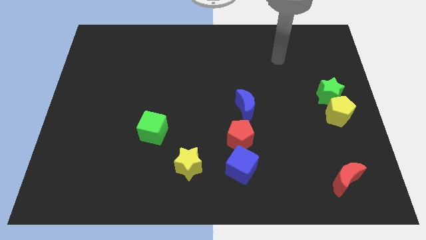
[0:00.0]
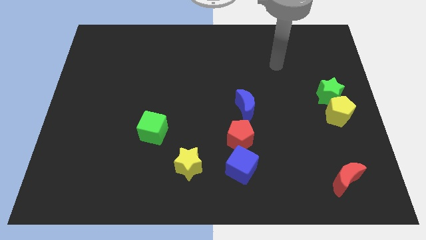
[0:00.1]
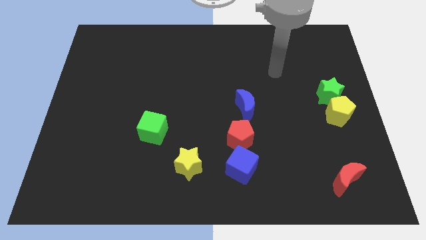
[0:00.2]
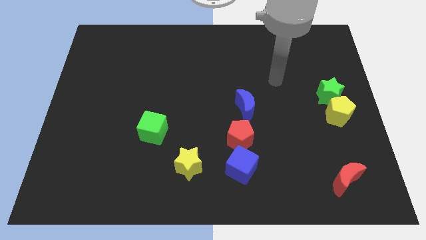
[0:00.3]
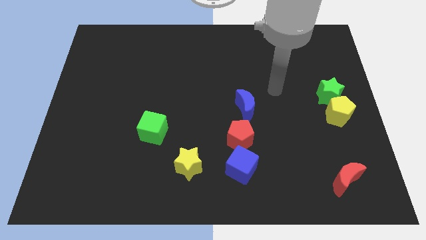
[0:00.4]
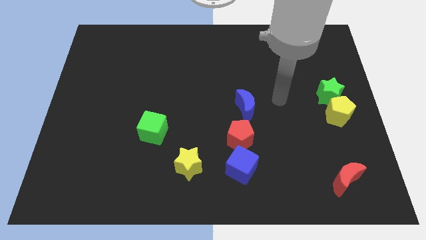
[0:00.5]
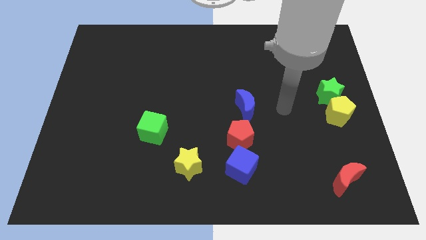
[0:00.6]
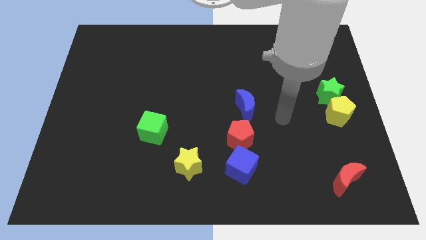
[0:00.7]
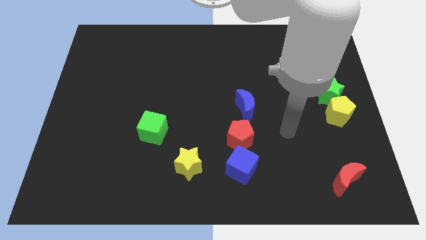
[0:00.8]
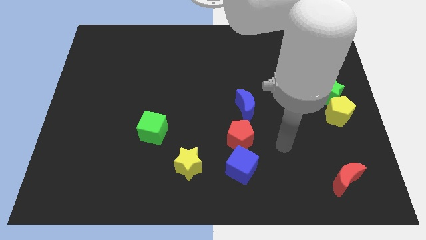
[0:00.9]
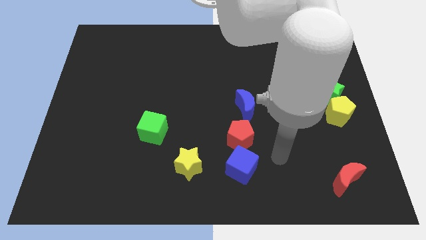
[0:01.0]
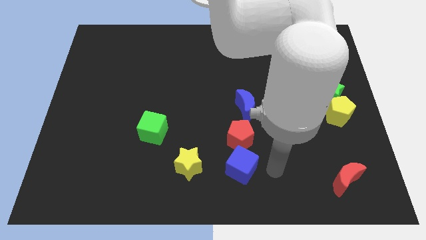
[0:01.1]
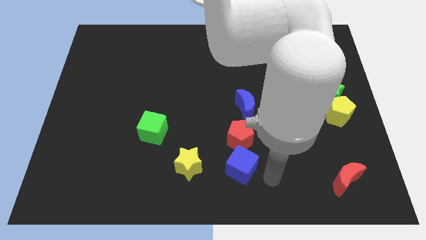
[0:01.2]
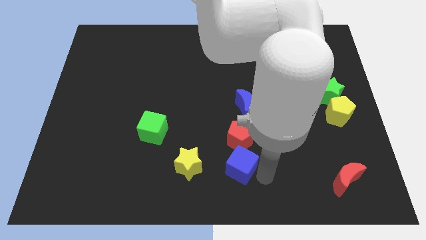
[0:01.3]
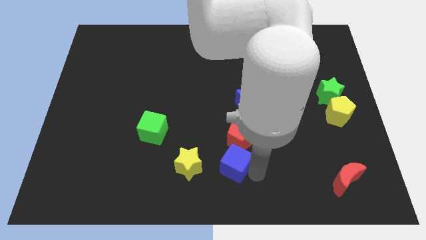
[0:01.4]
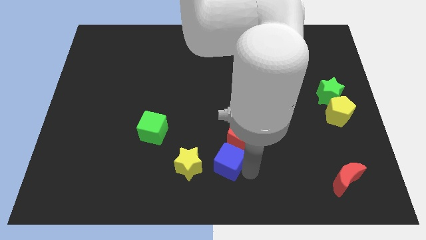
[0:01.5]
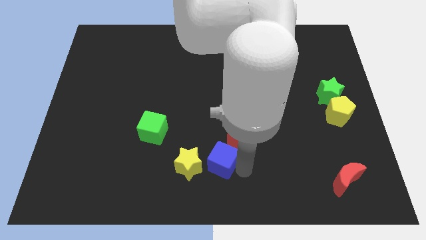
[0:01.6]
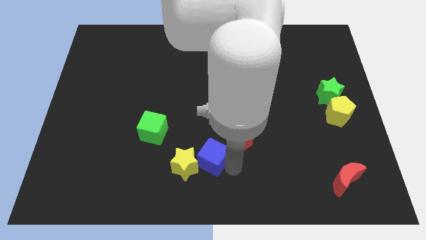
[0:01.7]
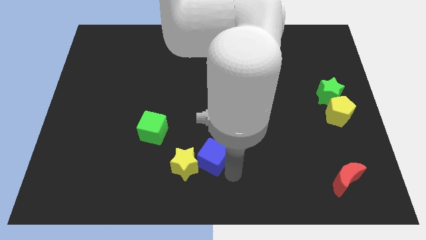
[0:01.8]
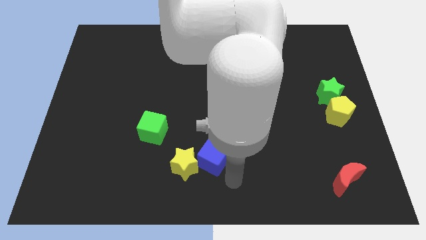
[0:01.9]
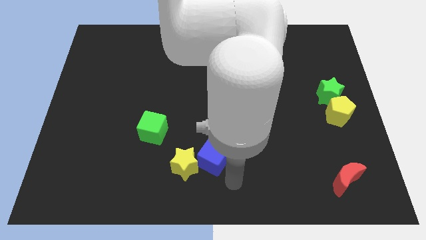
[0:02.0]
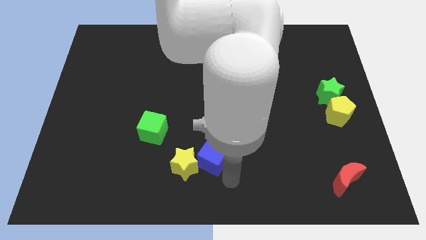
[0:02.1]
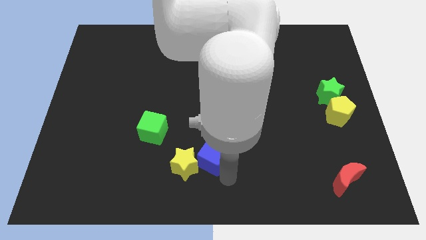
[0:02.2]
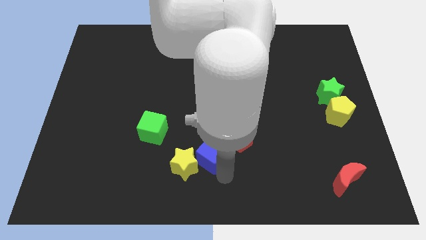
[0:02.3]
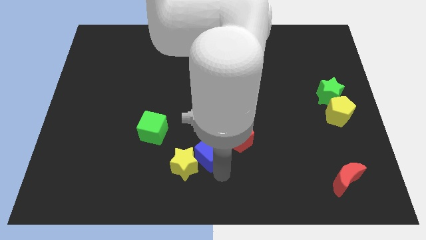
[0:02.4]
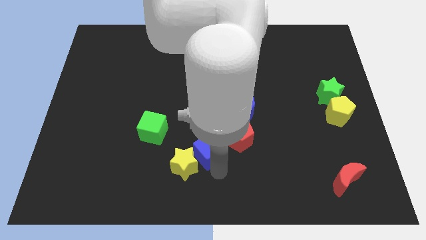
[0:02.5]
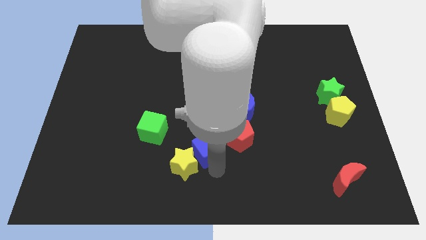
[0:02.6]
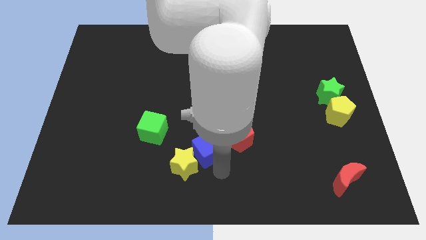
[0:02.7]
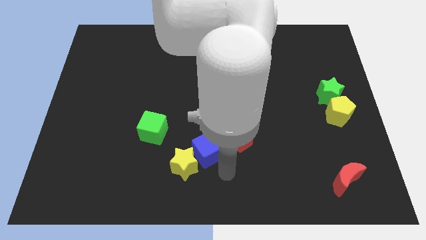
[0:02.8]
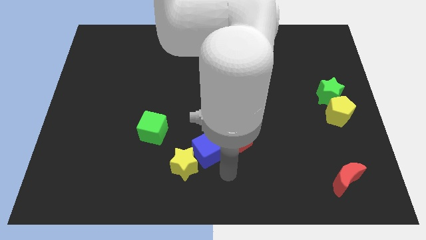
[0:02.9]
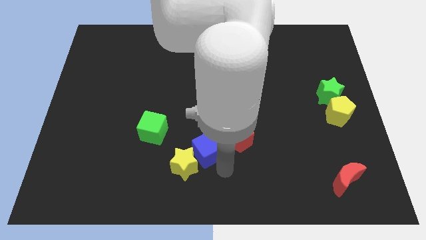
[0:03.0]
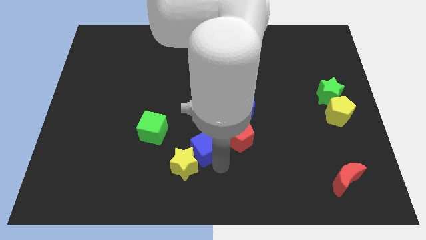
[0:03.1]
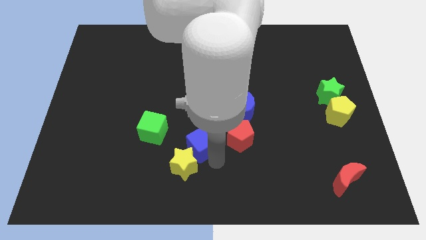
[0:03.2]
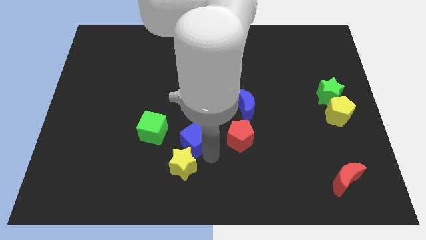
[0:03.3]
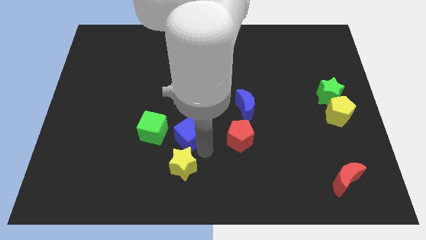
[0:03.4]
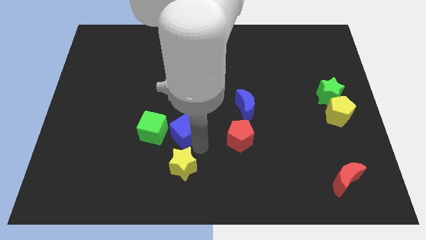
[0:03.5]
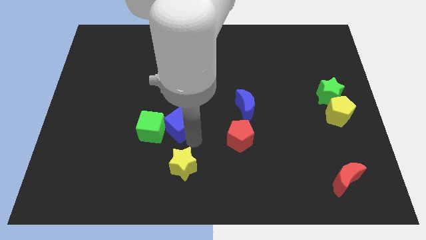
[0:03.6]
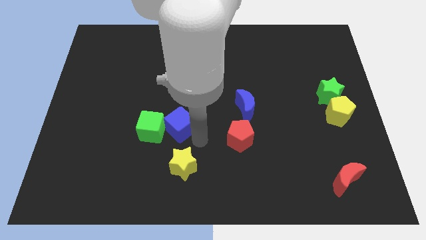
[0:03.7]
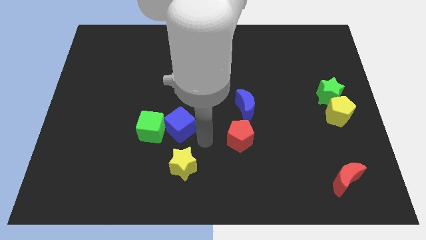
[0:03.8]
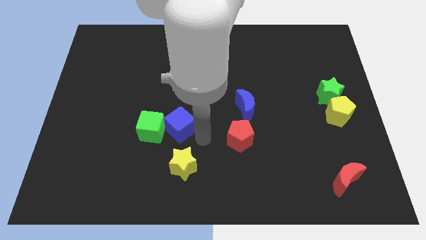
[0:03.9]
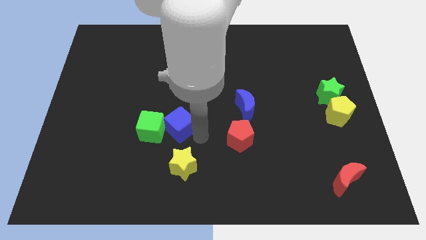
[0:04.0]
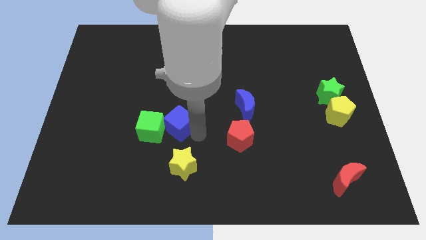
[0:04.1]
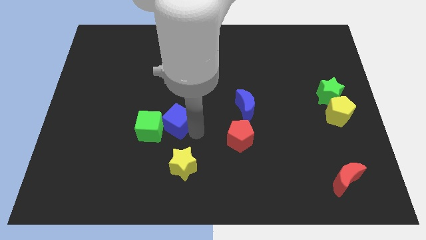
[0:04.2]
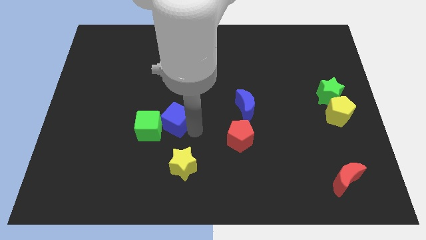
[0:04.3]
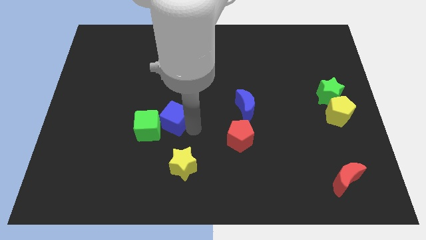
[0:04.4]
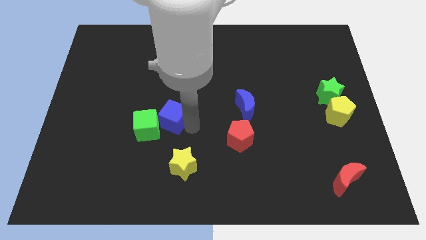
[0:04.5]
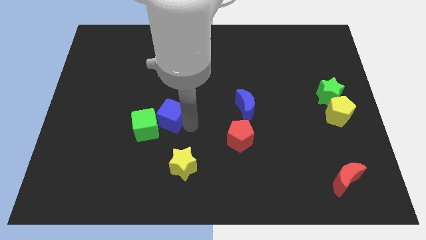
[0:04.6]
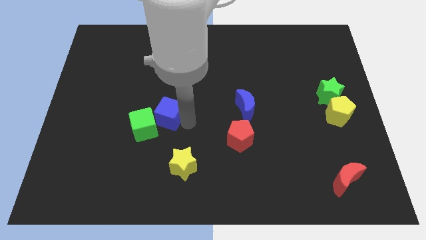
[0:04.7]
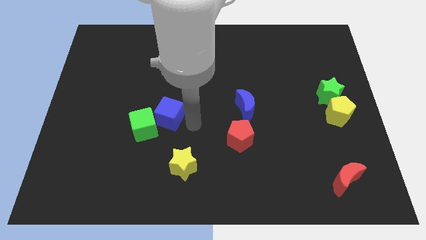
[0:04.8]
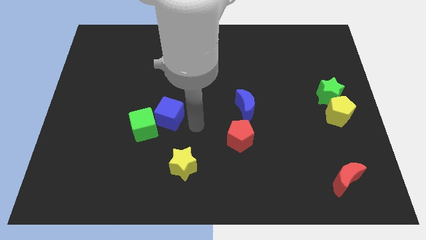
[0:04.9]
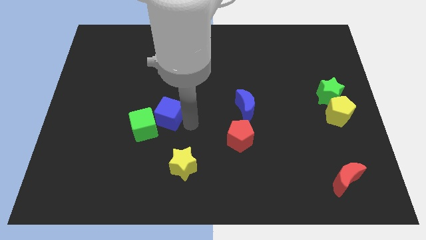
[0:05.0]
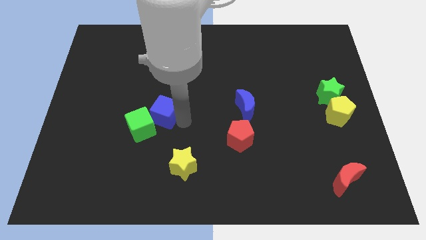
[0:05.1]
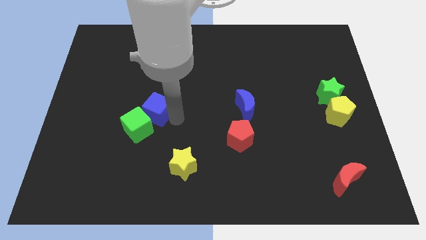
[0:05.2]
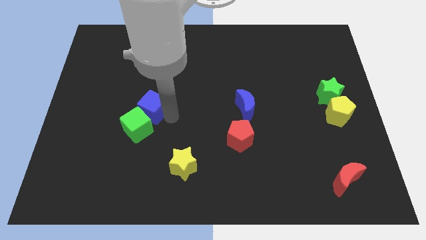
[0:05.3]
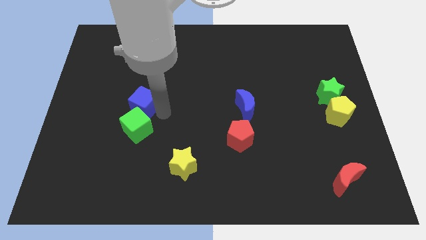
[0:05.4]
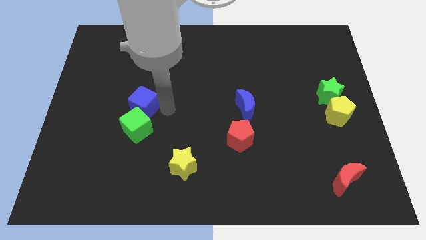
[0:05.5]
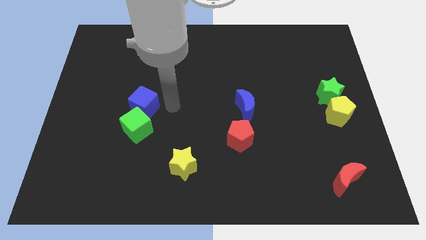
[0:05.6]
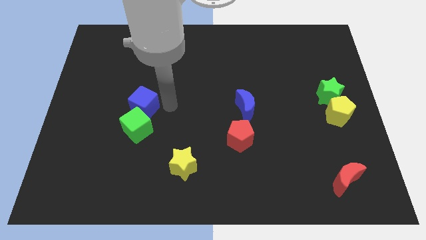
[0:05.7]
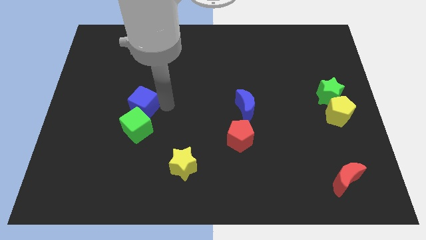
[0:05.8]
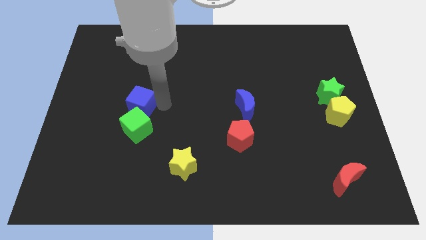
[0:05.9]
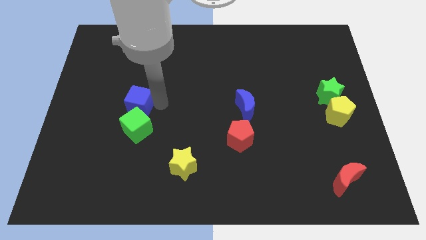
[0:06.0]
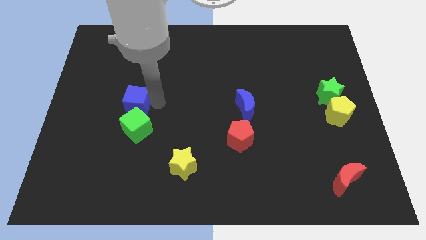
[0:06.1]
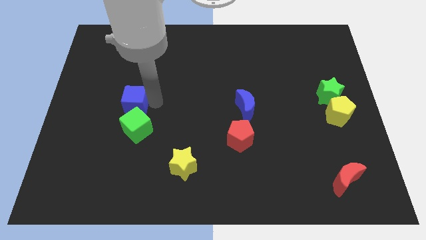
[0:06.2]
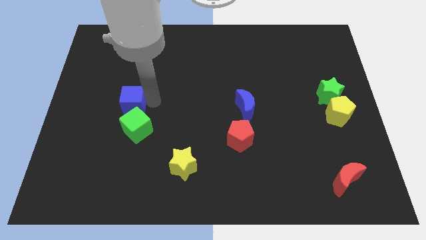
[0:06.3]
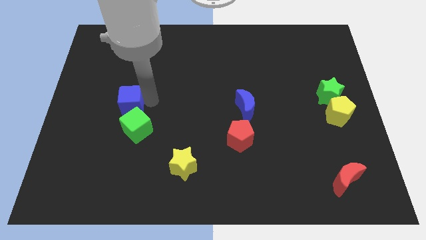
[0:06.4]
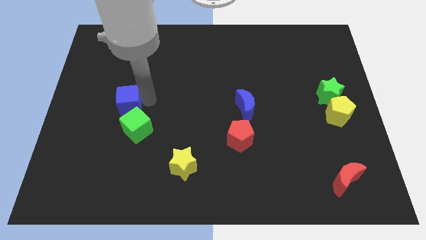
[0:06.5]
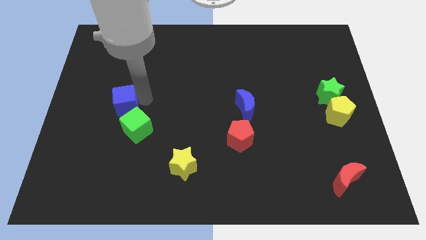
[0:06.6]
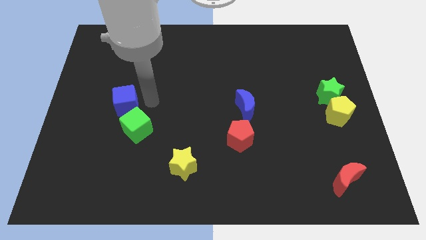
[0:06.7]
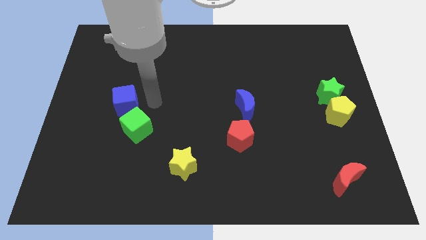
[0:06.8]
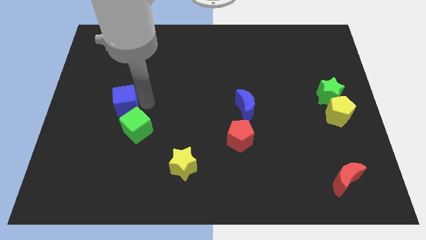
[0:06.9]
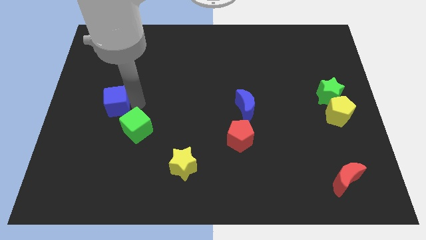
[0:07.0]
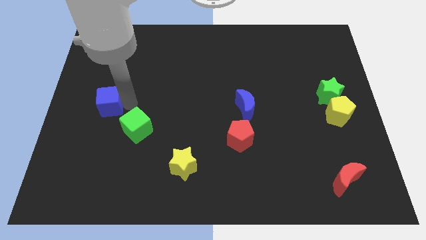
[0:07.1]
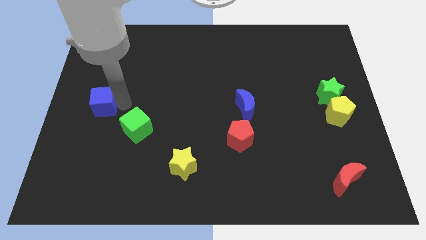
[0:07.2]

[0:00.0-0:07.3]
move the blue cube to the center left
